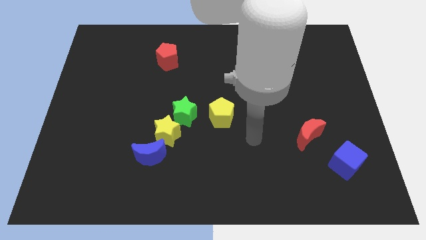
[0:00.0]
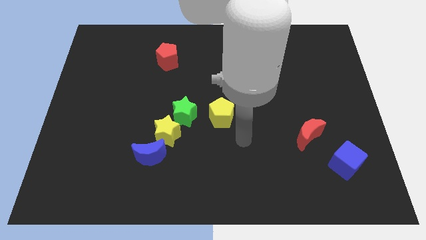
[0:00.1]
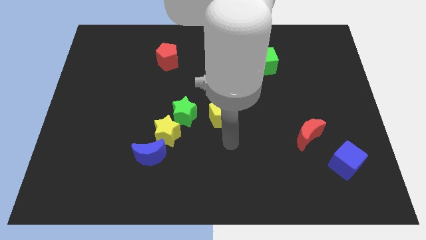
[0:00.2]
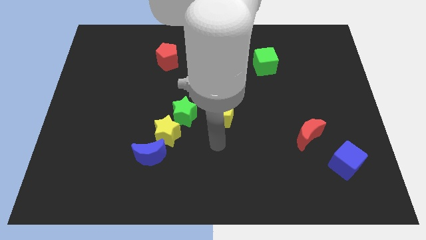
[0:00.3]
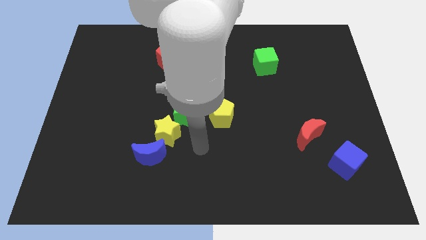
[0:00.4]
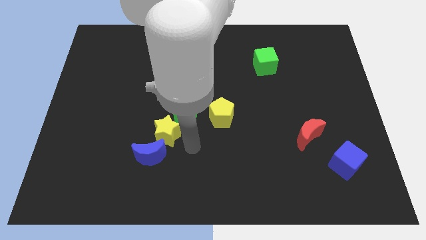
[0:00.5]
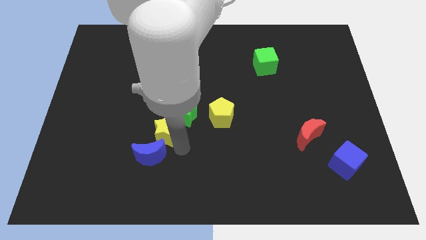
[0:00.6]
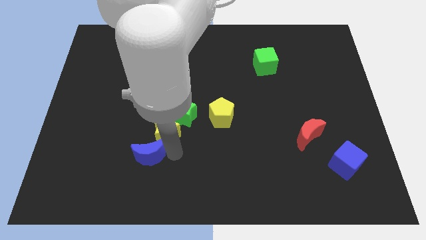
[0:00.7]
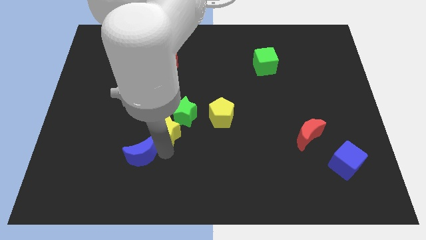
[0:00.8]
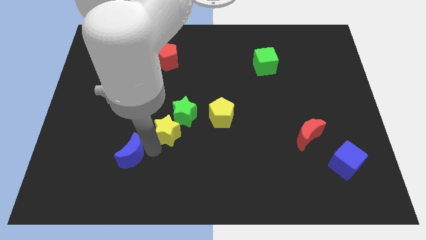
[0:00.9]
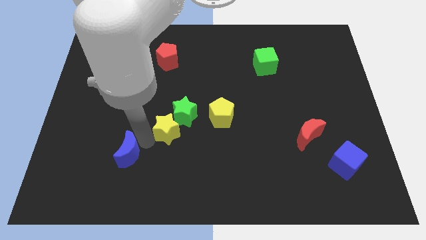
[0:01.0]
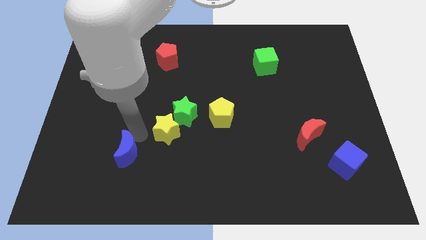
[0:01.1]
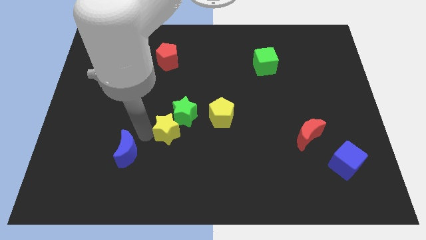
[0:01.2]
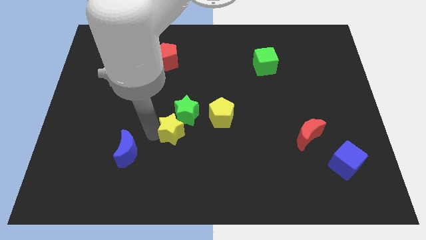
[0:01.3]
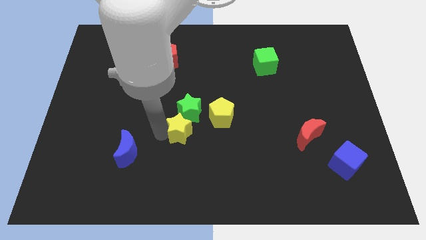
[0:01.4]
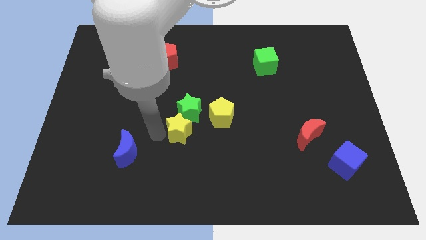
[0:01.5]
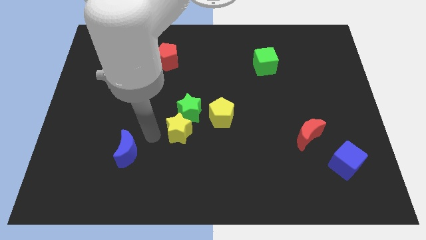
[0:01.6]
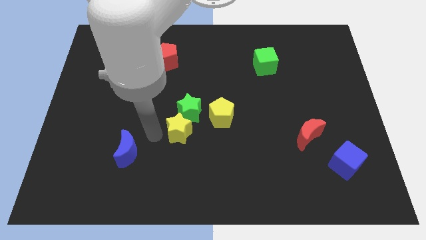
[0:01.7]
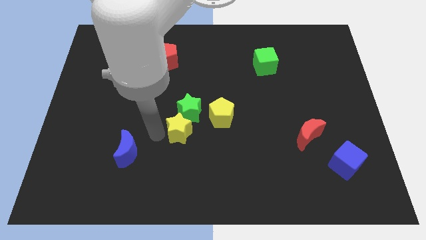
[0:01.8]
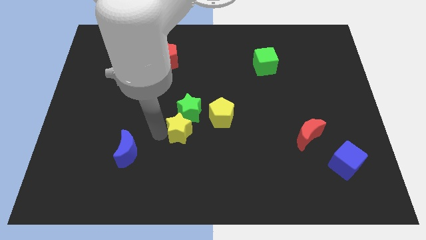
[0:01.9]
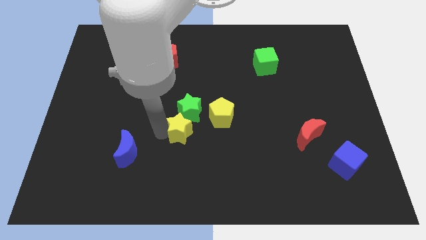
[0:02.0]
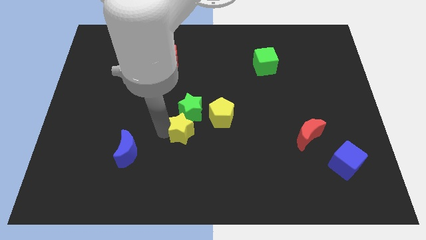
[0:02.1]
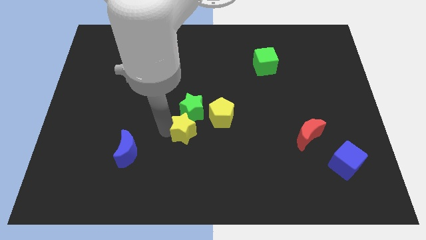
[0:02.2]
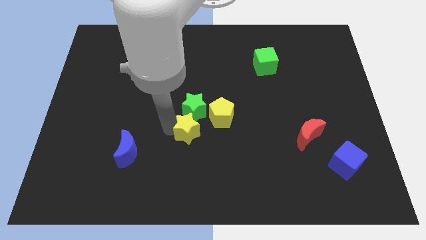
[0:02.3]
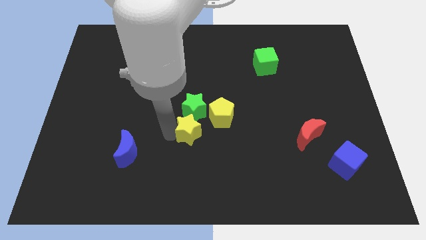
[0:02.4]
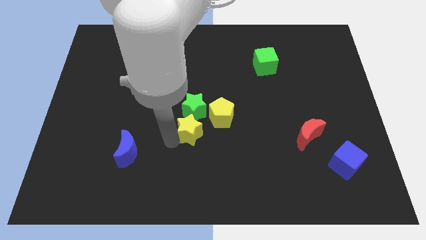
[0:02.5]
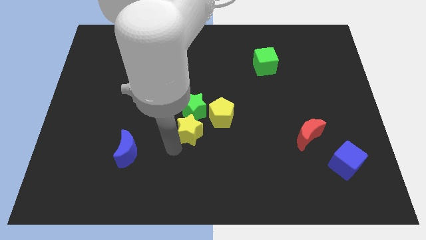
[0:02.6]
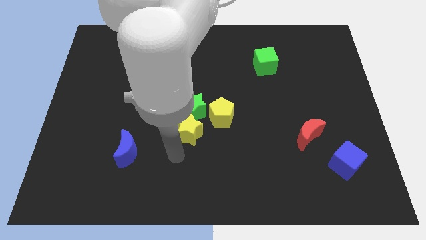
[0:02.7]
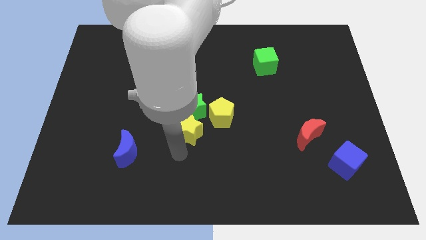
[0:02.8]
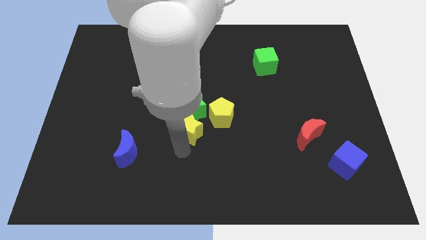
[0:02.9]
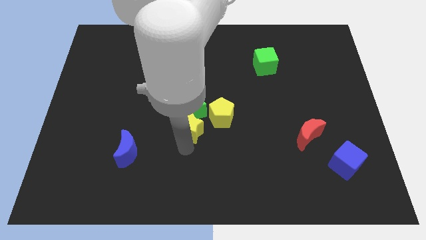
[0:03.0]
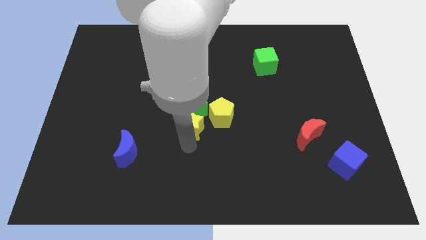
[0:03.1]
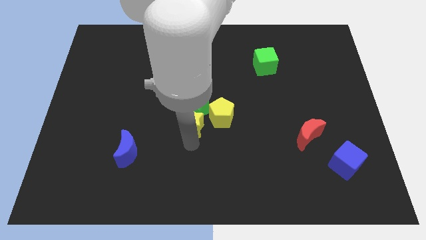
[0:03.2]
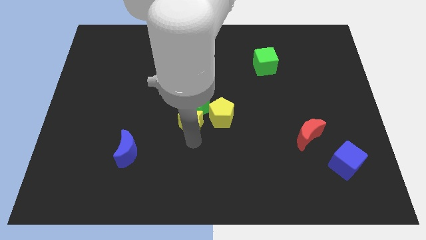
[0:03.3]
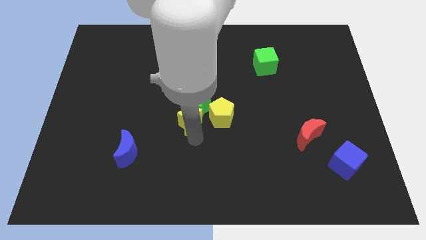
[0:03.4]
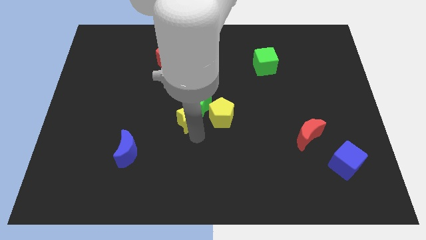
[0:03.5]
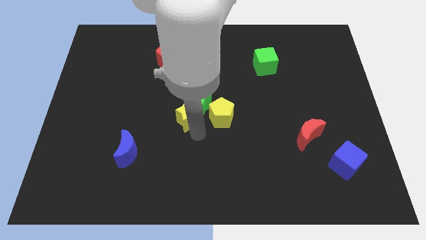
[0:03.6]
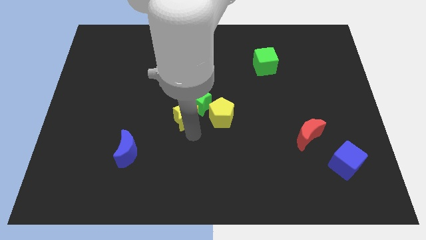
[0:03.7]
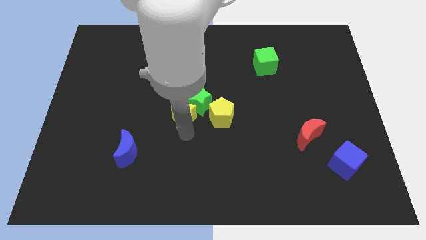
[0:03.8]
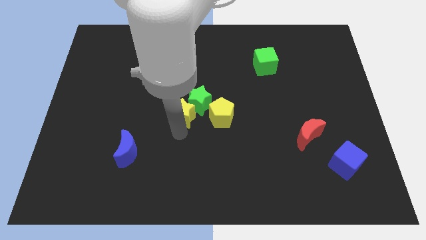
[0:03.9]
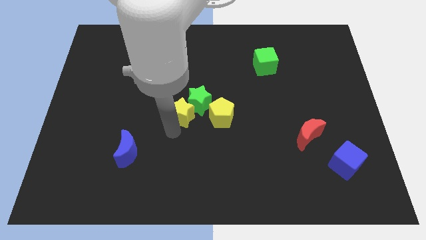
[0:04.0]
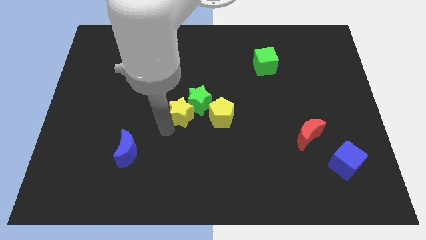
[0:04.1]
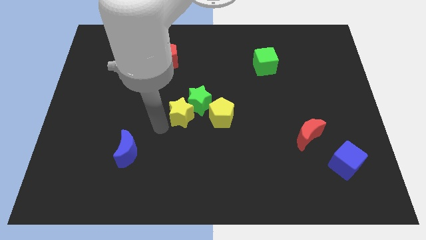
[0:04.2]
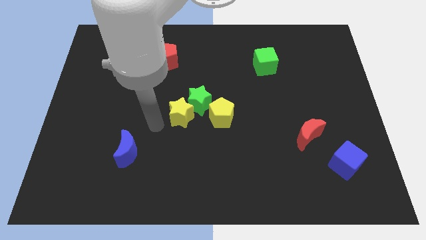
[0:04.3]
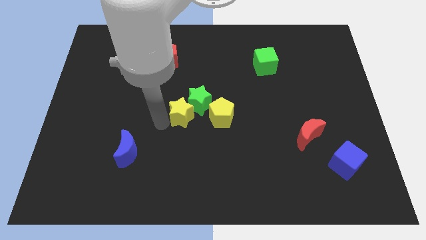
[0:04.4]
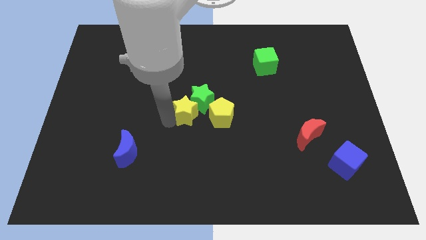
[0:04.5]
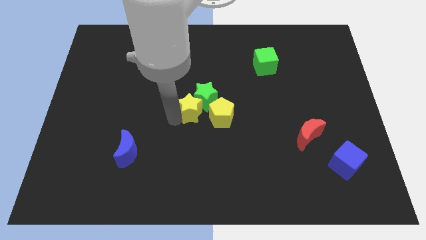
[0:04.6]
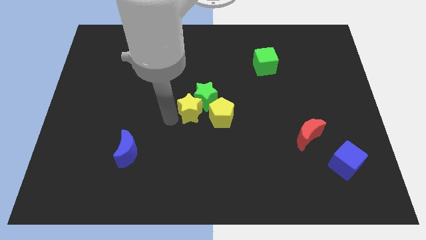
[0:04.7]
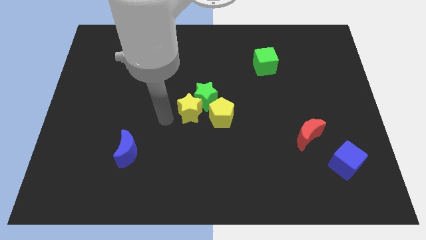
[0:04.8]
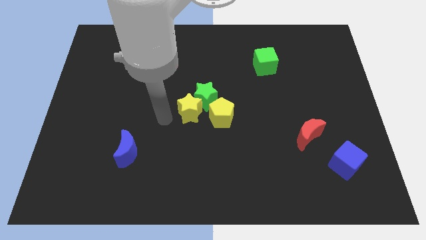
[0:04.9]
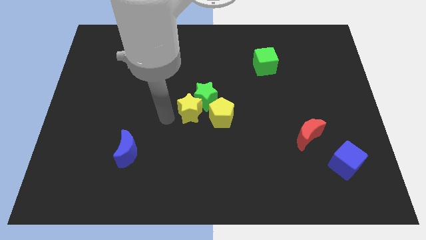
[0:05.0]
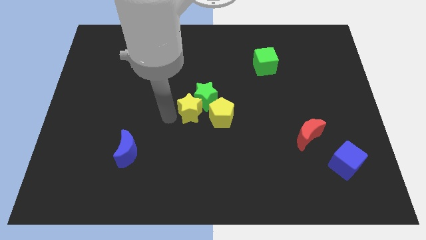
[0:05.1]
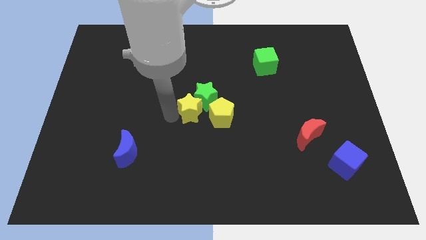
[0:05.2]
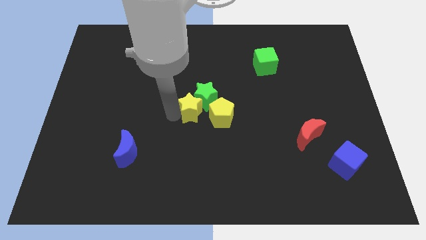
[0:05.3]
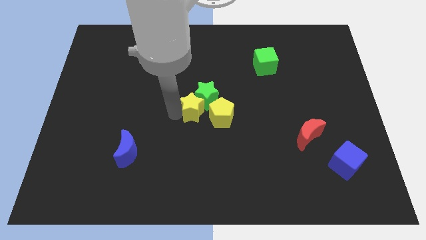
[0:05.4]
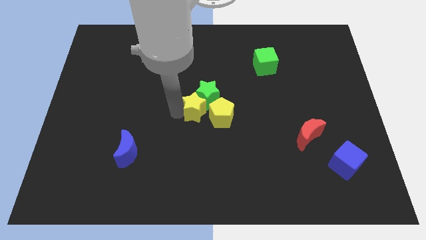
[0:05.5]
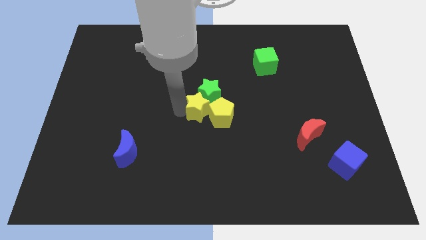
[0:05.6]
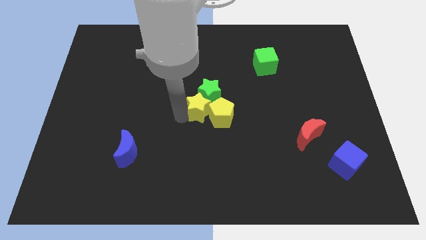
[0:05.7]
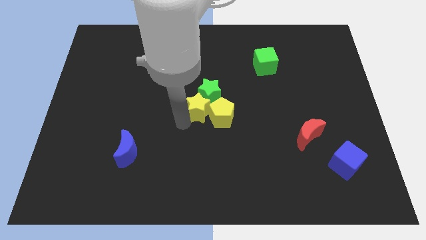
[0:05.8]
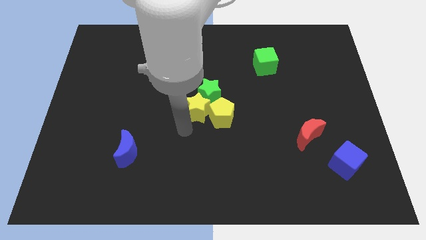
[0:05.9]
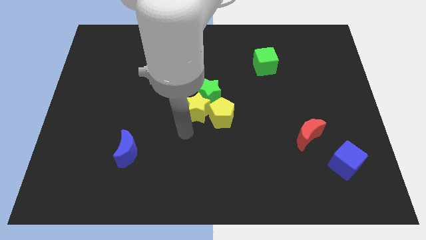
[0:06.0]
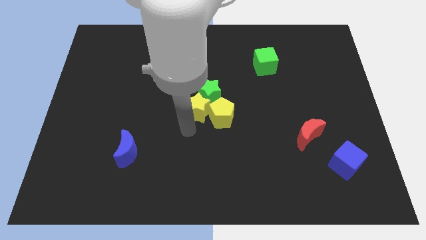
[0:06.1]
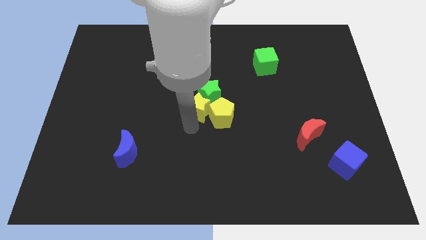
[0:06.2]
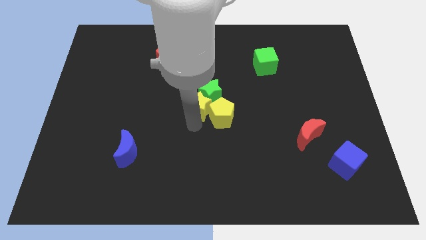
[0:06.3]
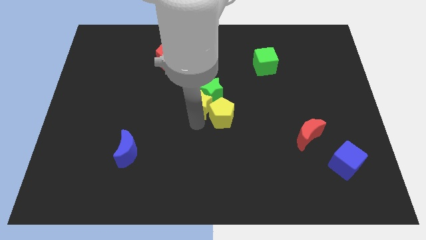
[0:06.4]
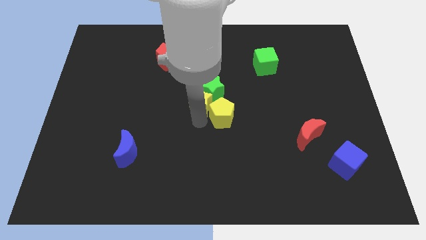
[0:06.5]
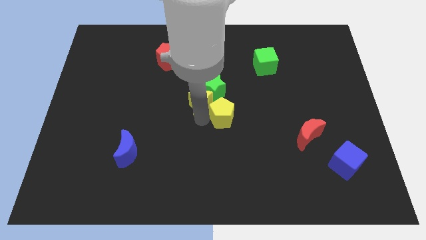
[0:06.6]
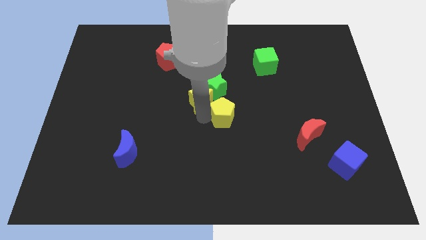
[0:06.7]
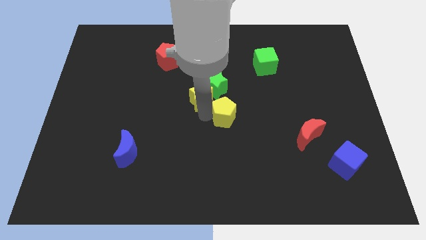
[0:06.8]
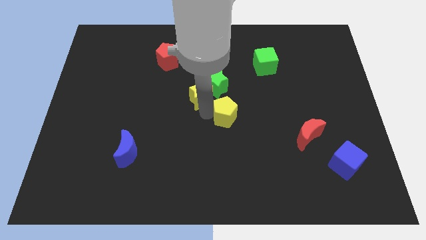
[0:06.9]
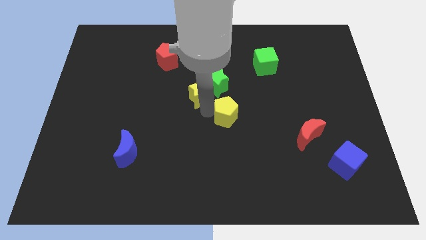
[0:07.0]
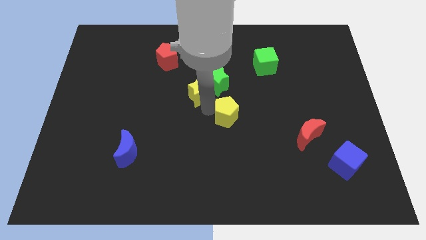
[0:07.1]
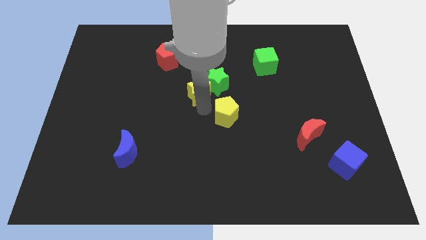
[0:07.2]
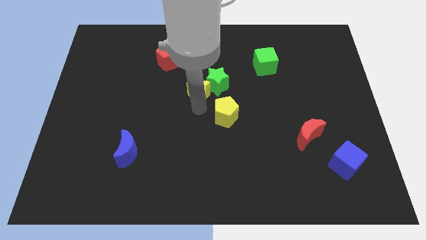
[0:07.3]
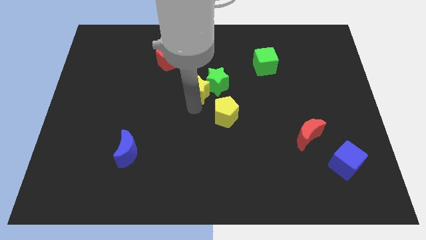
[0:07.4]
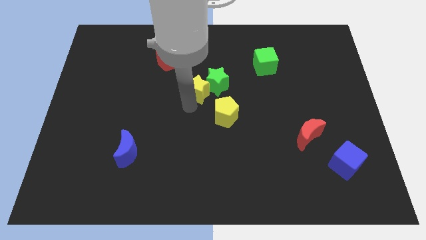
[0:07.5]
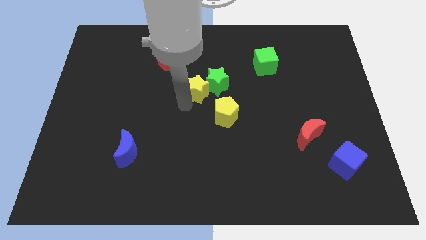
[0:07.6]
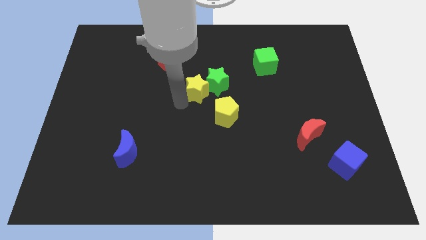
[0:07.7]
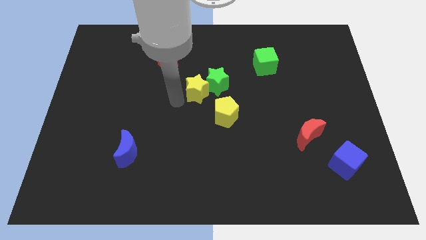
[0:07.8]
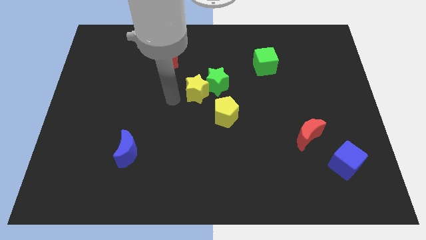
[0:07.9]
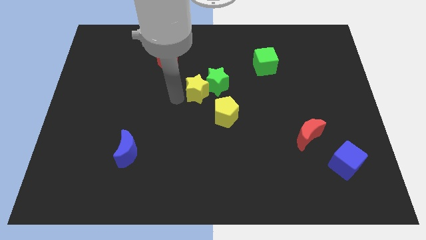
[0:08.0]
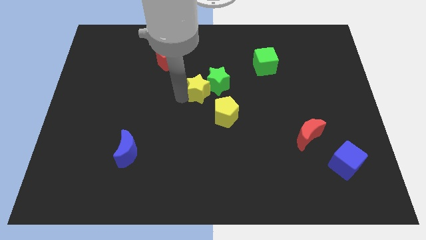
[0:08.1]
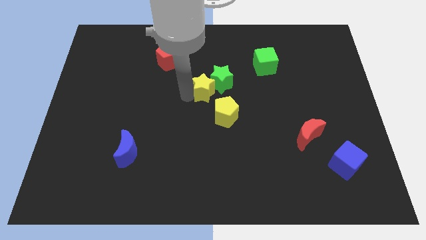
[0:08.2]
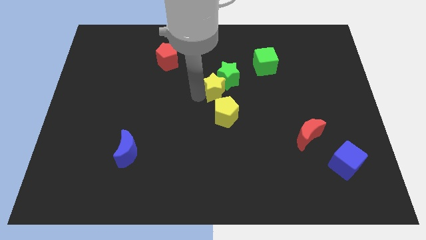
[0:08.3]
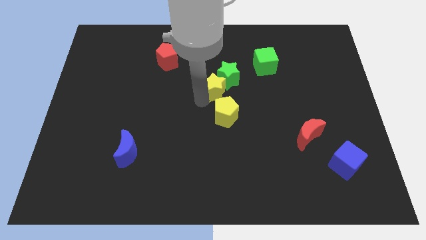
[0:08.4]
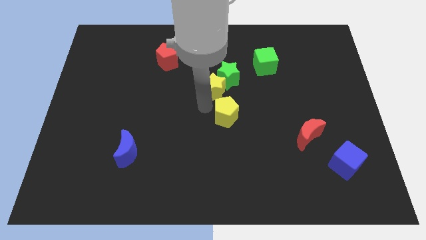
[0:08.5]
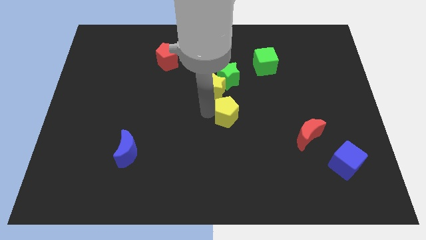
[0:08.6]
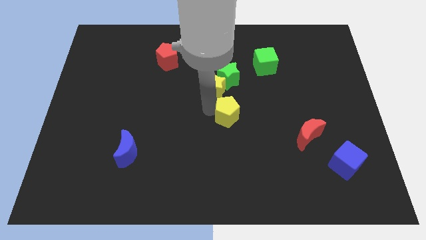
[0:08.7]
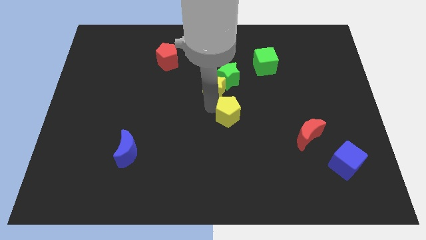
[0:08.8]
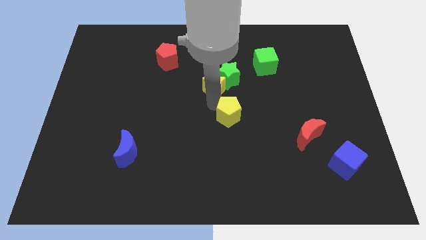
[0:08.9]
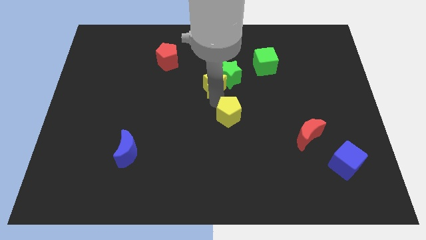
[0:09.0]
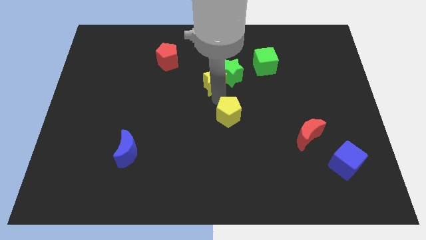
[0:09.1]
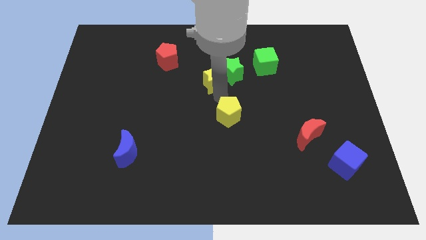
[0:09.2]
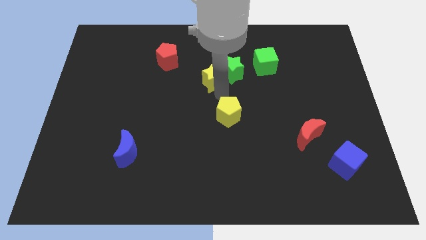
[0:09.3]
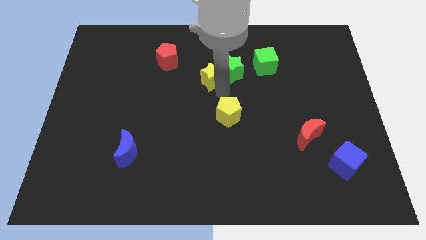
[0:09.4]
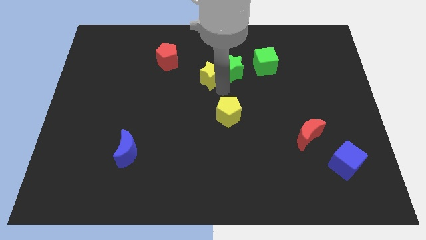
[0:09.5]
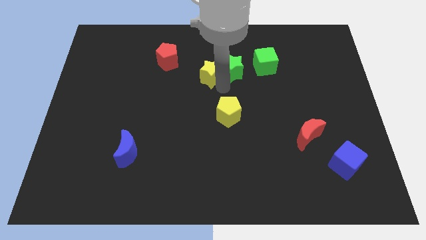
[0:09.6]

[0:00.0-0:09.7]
put the yellow star left of the green cube
